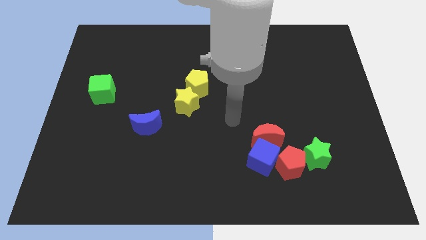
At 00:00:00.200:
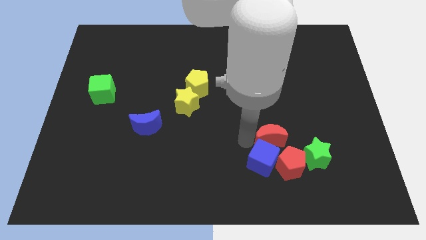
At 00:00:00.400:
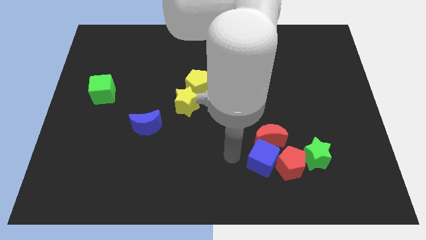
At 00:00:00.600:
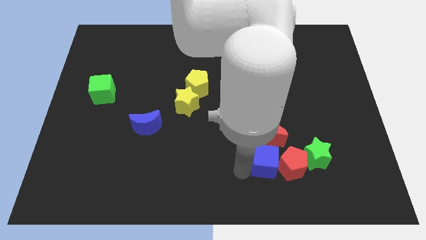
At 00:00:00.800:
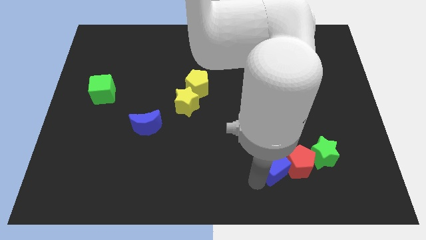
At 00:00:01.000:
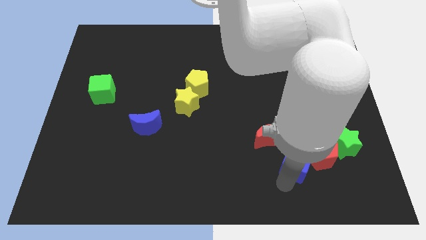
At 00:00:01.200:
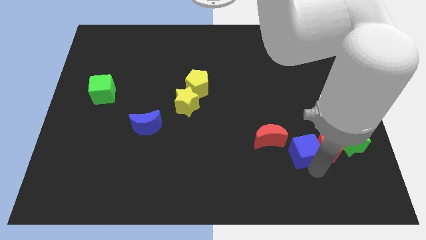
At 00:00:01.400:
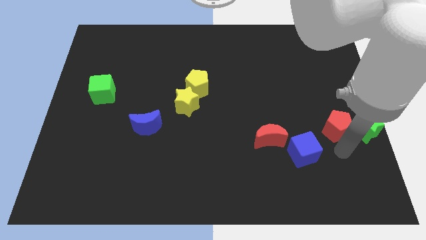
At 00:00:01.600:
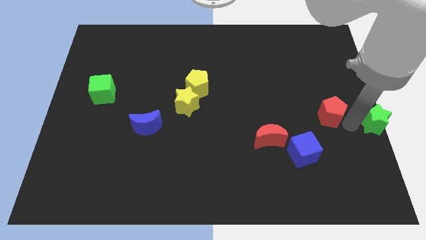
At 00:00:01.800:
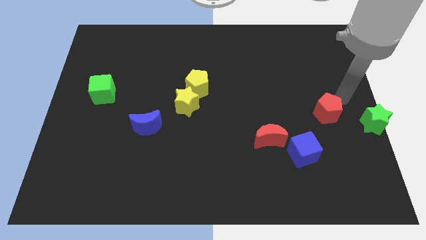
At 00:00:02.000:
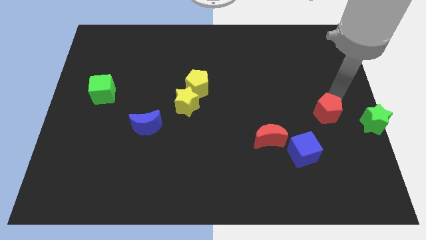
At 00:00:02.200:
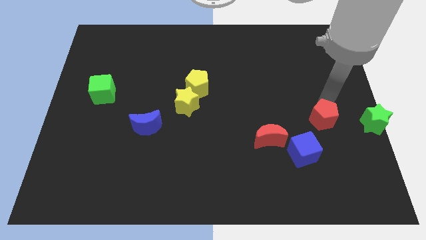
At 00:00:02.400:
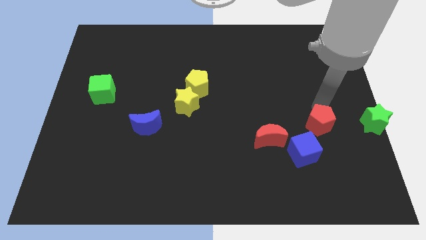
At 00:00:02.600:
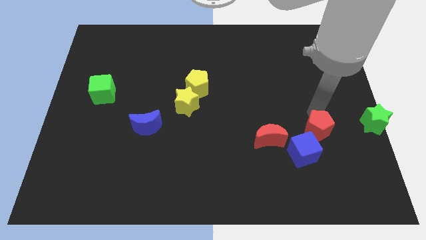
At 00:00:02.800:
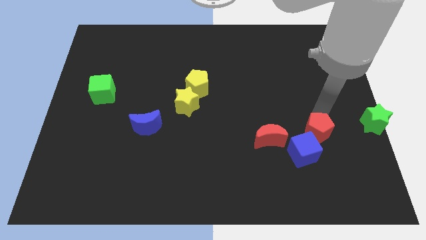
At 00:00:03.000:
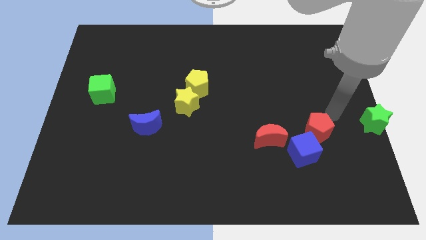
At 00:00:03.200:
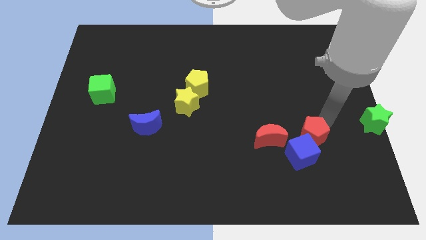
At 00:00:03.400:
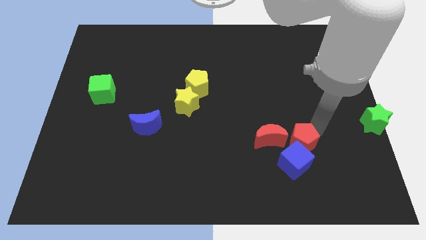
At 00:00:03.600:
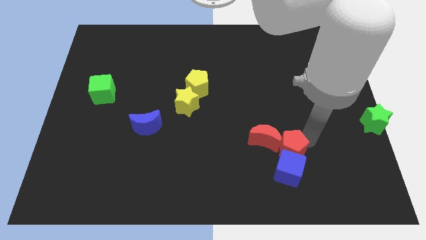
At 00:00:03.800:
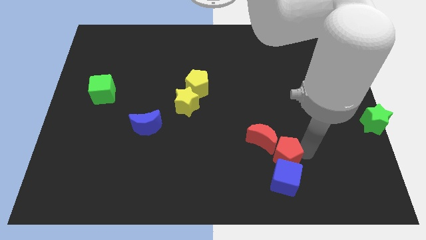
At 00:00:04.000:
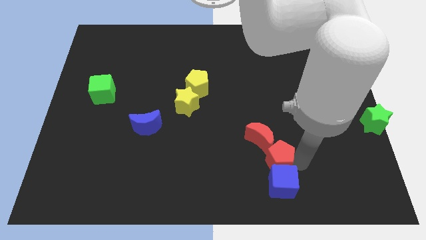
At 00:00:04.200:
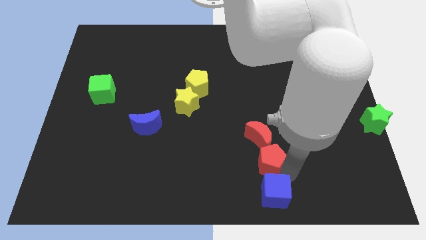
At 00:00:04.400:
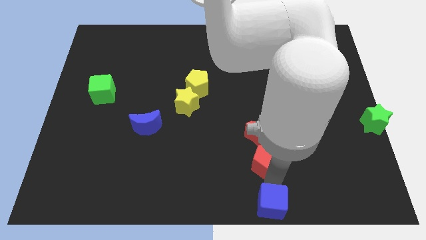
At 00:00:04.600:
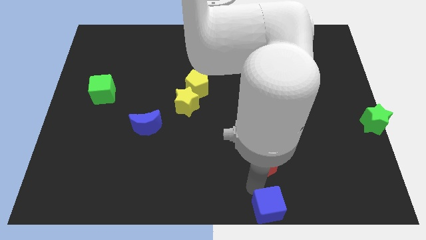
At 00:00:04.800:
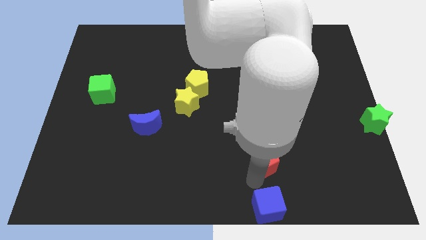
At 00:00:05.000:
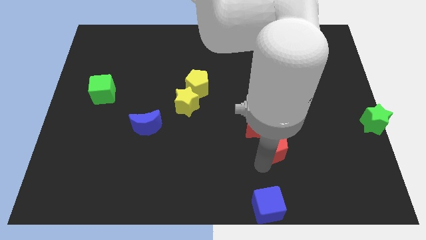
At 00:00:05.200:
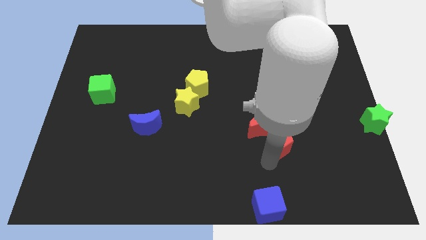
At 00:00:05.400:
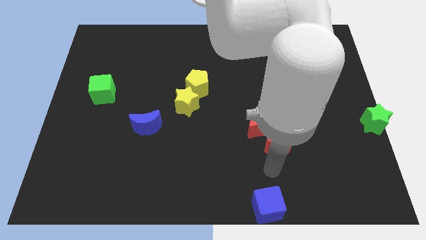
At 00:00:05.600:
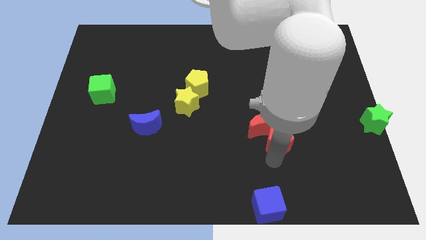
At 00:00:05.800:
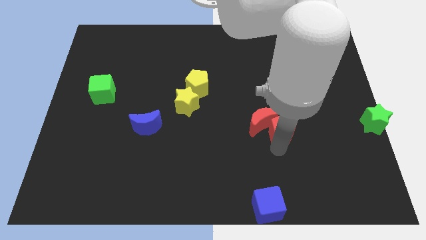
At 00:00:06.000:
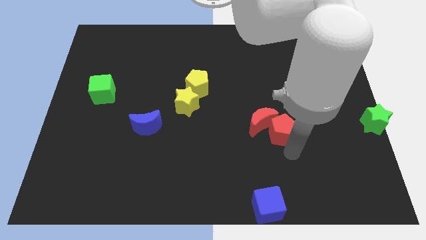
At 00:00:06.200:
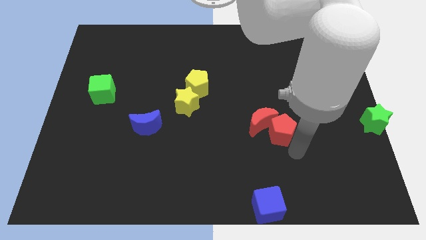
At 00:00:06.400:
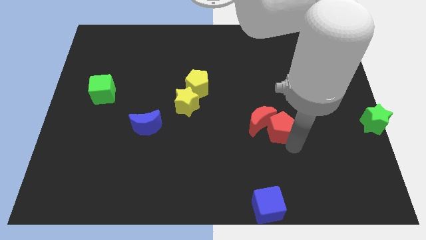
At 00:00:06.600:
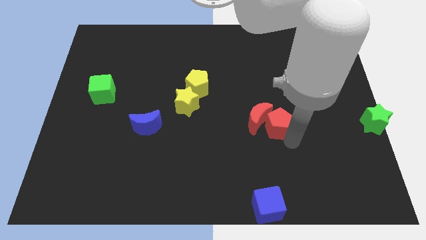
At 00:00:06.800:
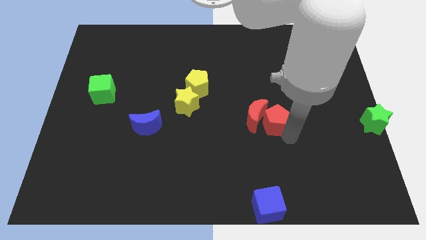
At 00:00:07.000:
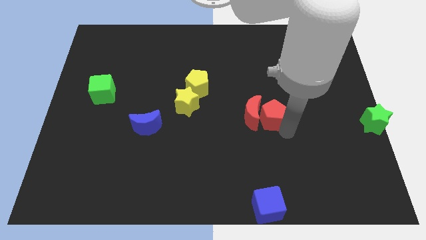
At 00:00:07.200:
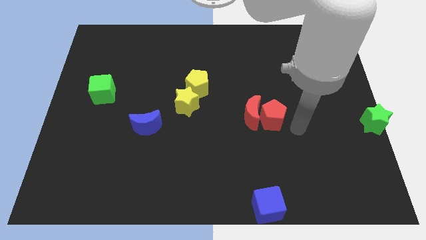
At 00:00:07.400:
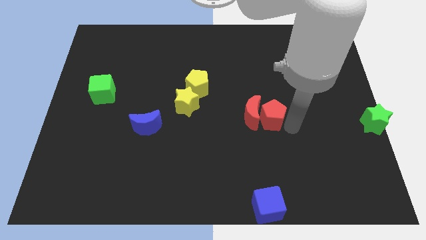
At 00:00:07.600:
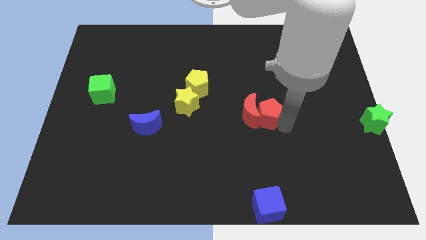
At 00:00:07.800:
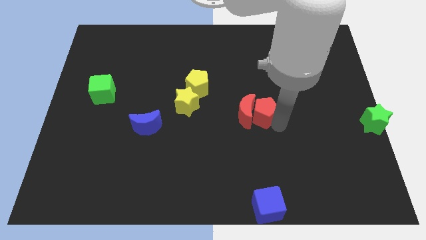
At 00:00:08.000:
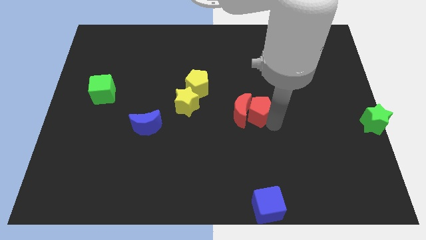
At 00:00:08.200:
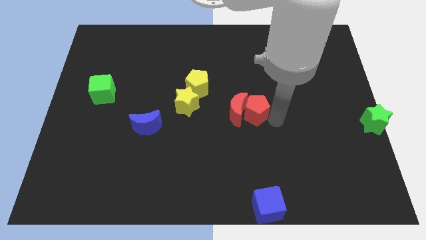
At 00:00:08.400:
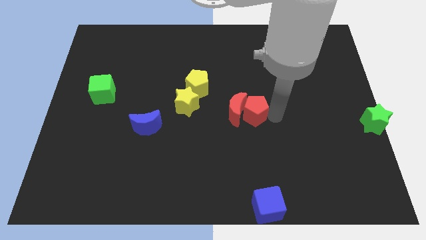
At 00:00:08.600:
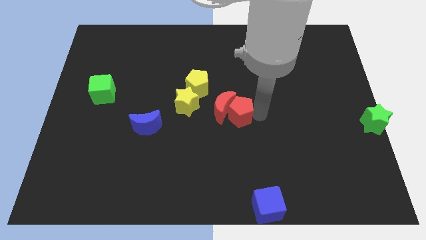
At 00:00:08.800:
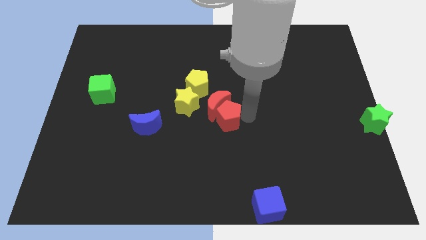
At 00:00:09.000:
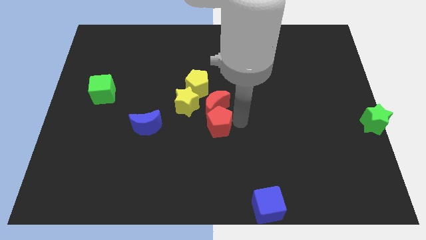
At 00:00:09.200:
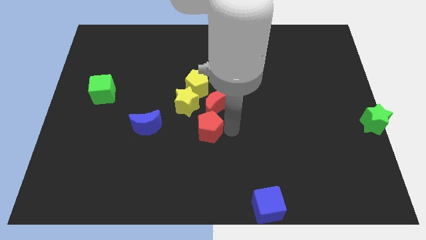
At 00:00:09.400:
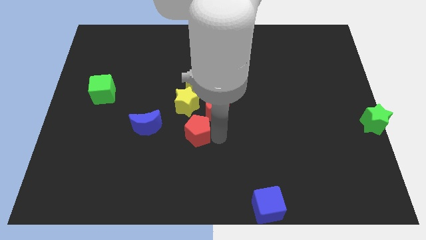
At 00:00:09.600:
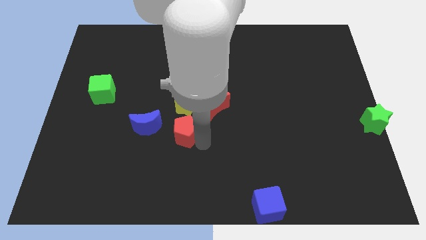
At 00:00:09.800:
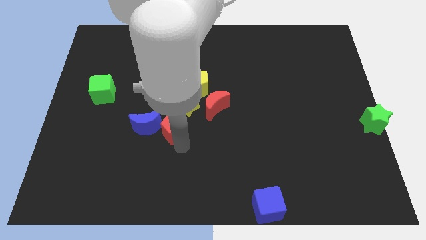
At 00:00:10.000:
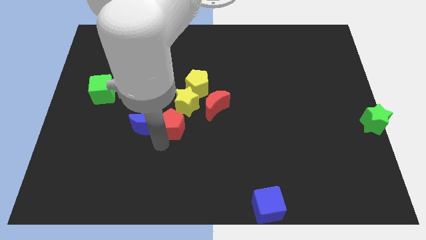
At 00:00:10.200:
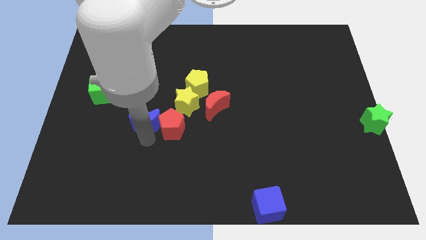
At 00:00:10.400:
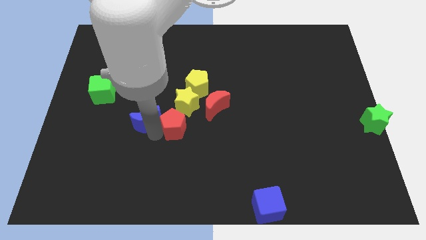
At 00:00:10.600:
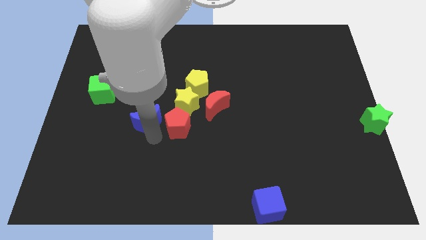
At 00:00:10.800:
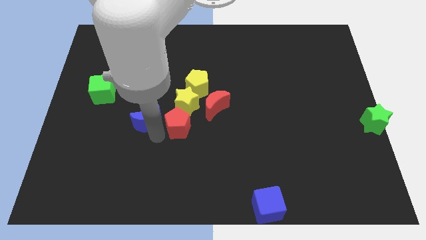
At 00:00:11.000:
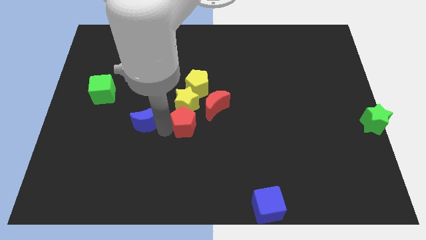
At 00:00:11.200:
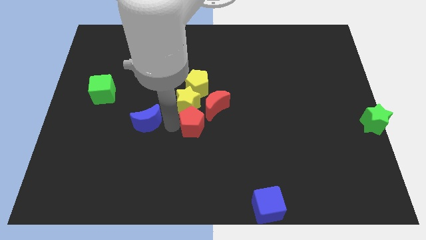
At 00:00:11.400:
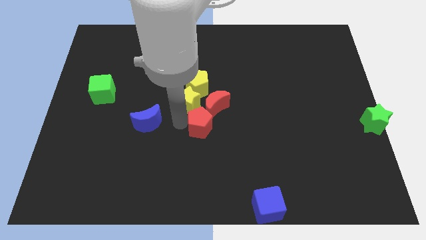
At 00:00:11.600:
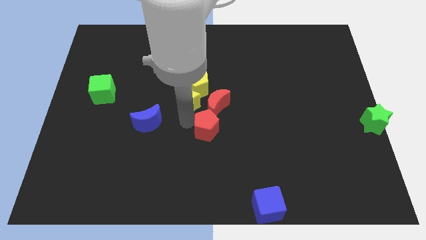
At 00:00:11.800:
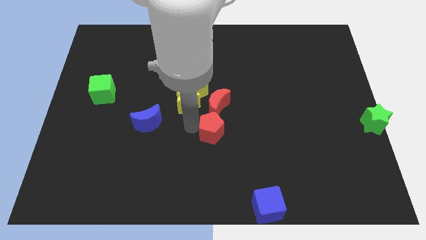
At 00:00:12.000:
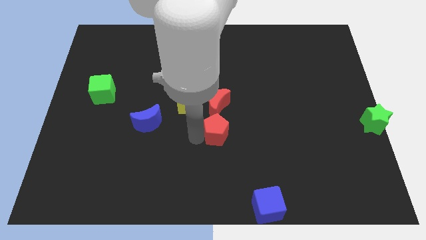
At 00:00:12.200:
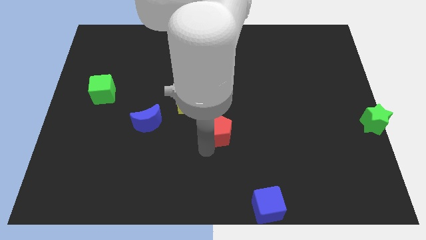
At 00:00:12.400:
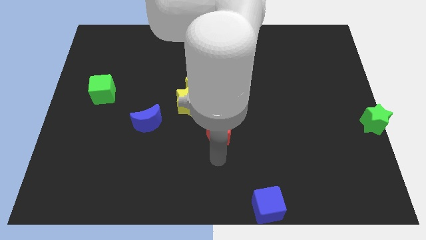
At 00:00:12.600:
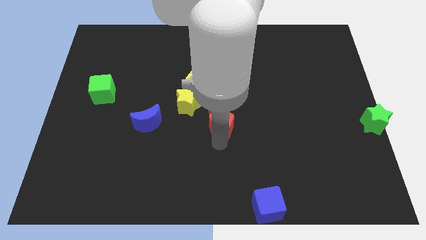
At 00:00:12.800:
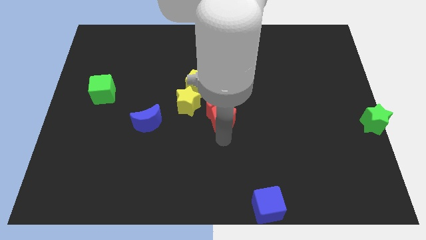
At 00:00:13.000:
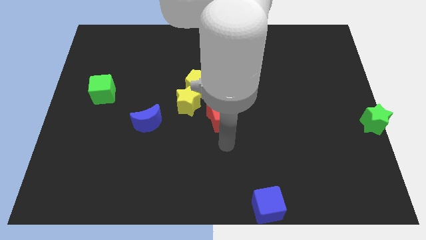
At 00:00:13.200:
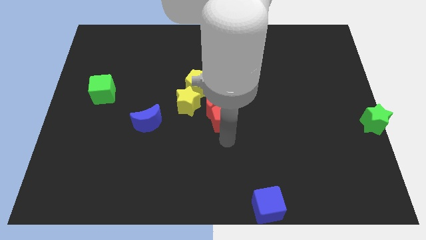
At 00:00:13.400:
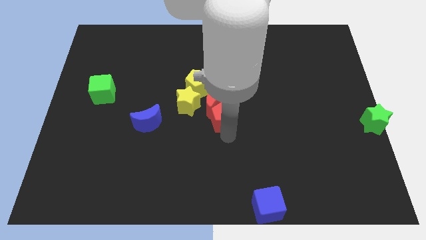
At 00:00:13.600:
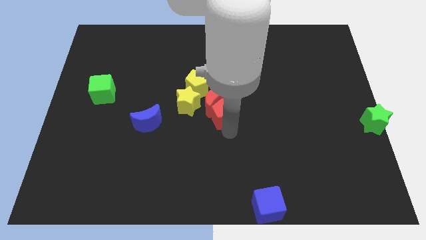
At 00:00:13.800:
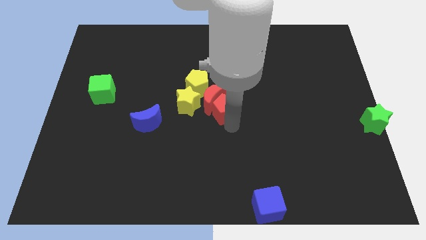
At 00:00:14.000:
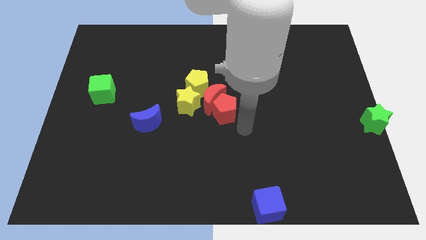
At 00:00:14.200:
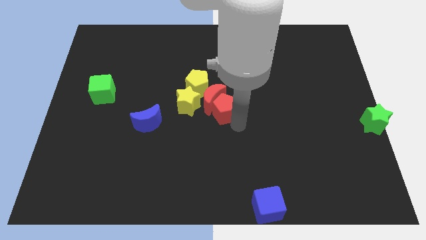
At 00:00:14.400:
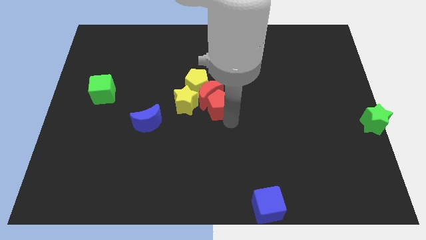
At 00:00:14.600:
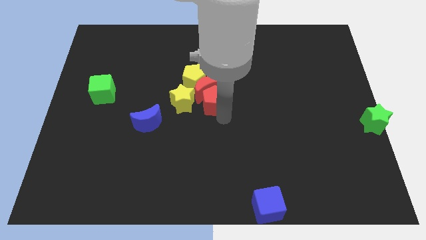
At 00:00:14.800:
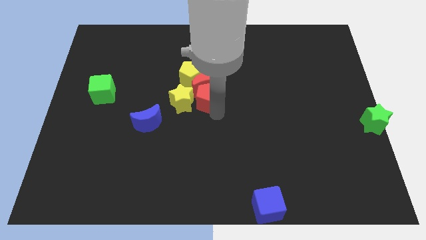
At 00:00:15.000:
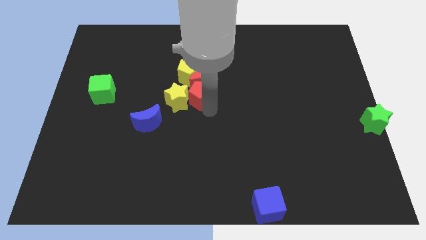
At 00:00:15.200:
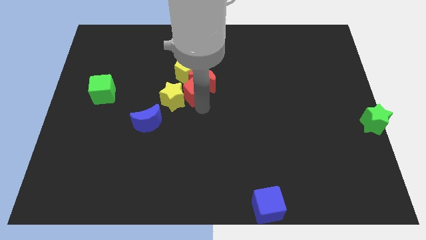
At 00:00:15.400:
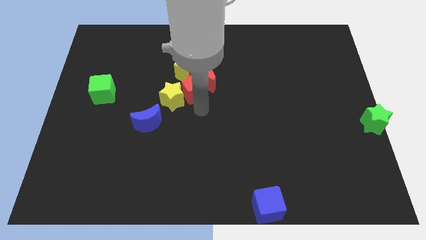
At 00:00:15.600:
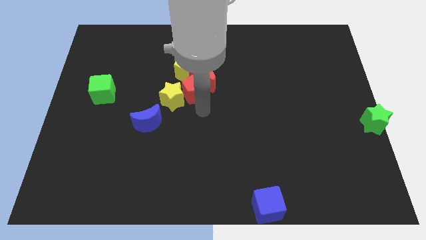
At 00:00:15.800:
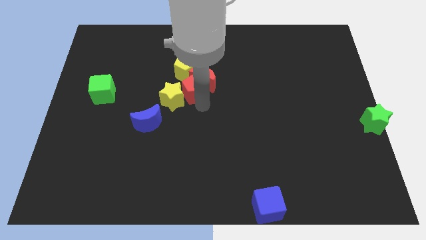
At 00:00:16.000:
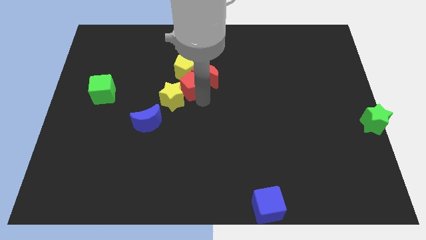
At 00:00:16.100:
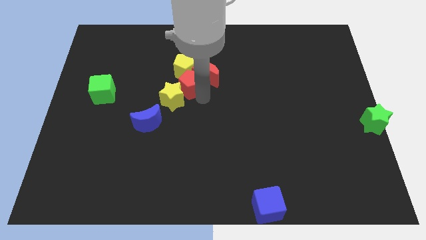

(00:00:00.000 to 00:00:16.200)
move the red pentagon next to the yellow pentagon
